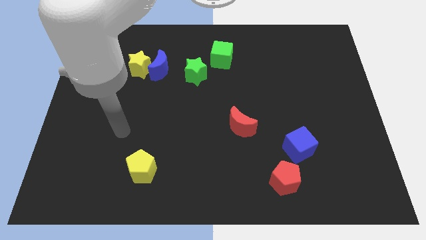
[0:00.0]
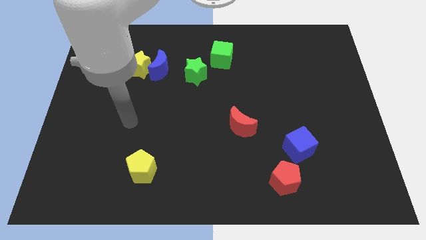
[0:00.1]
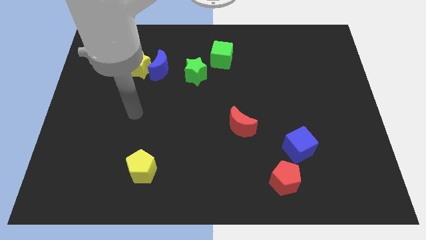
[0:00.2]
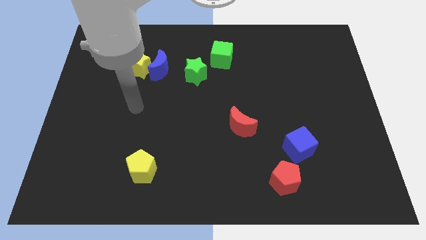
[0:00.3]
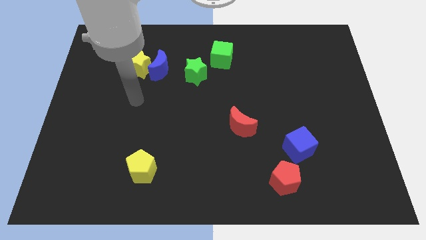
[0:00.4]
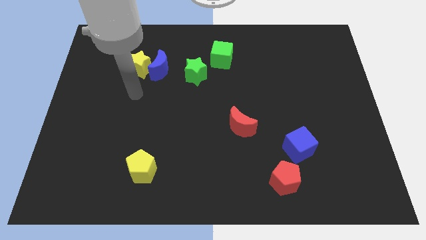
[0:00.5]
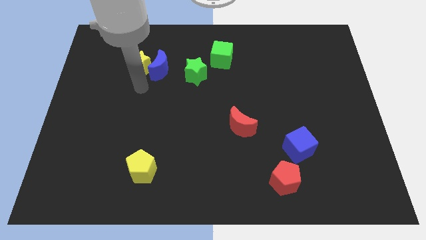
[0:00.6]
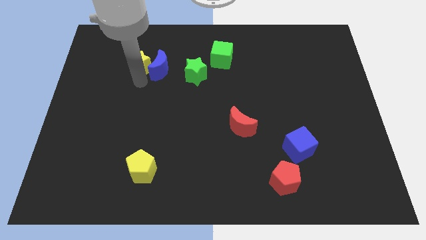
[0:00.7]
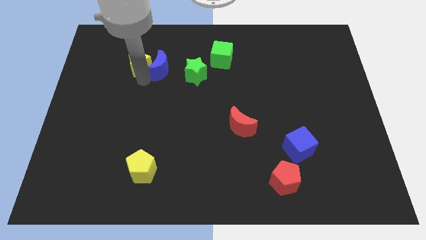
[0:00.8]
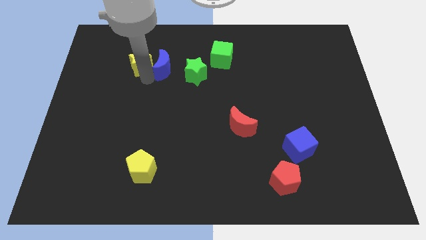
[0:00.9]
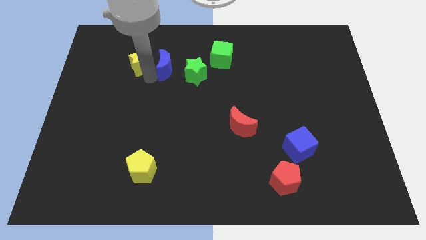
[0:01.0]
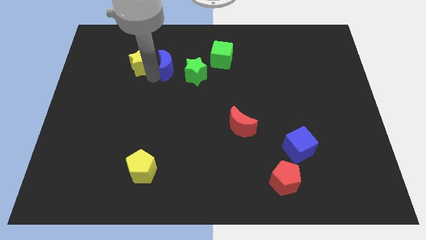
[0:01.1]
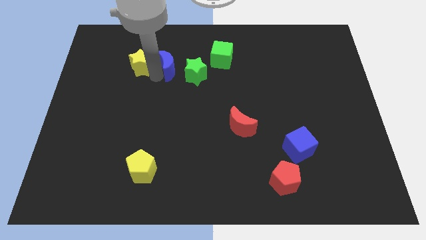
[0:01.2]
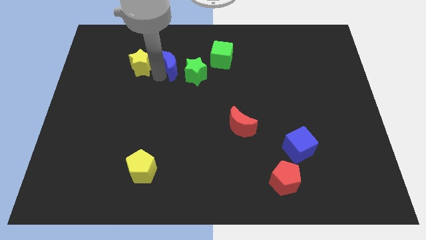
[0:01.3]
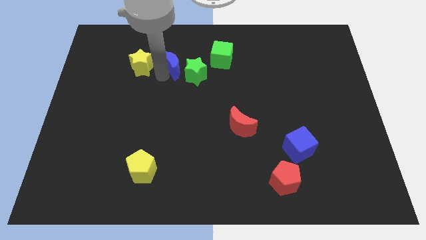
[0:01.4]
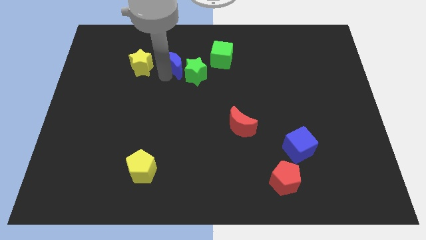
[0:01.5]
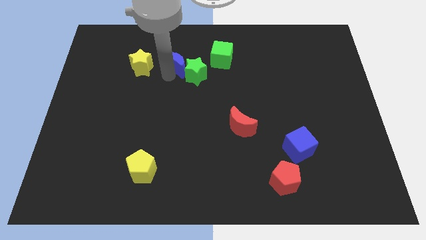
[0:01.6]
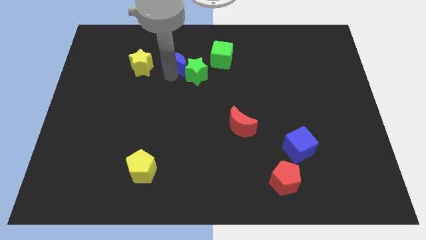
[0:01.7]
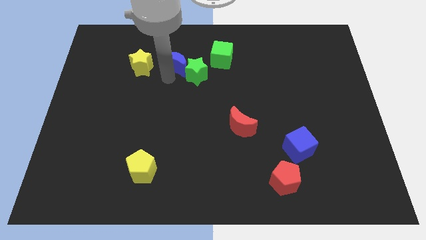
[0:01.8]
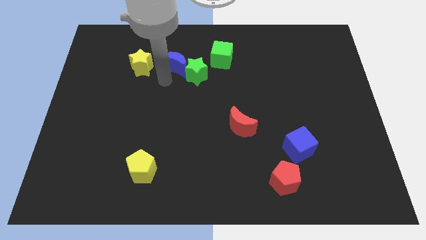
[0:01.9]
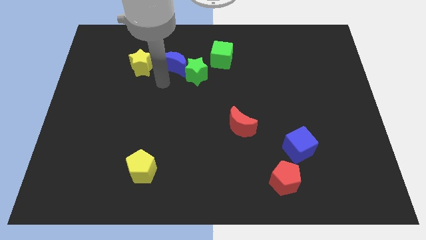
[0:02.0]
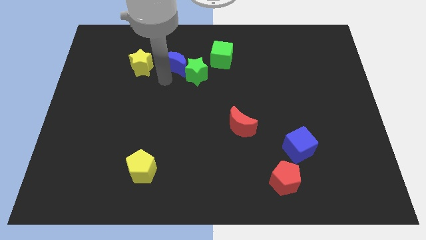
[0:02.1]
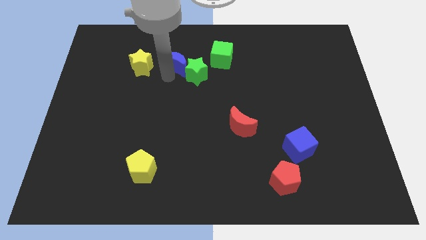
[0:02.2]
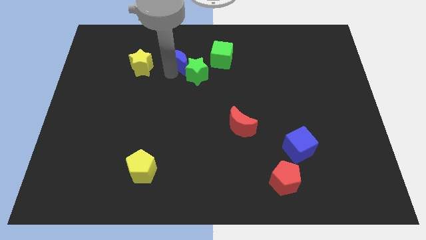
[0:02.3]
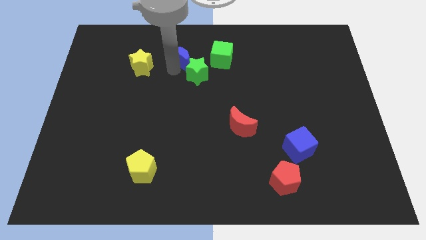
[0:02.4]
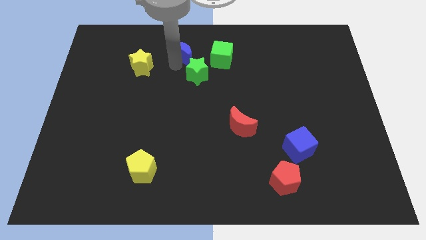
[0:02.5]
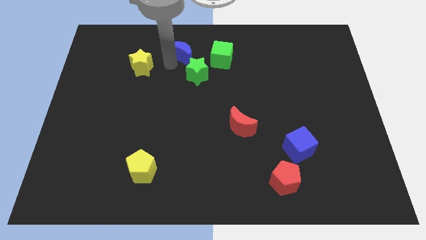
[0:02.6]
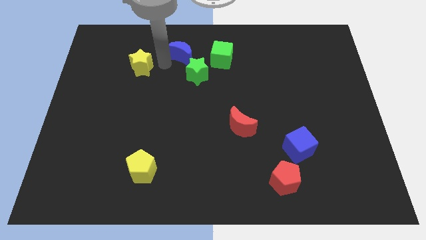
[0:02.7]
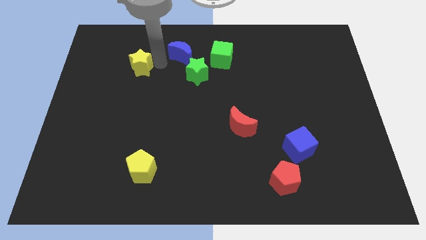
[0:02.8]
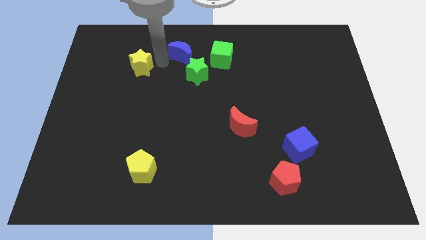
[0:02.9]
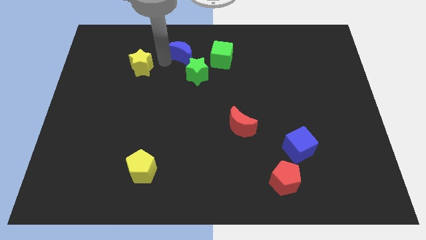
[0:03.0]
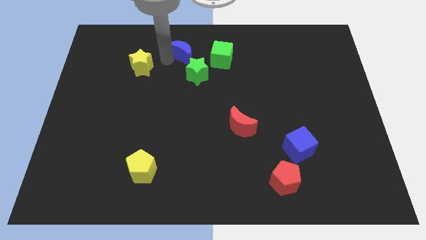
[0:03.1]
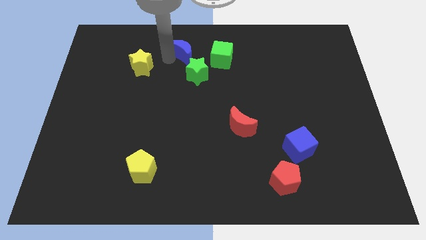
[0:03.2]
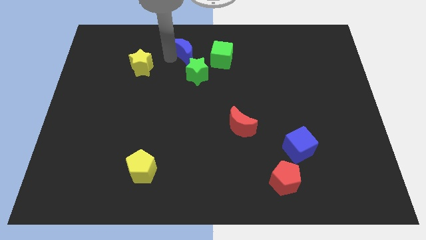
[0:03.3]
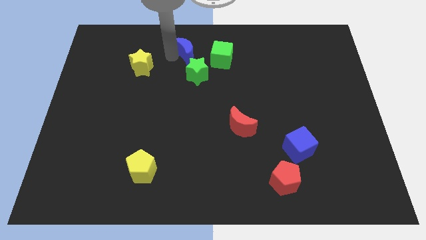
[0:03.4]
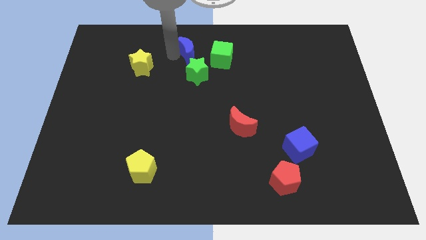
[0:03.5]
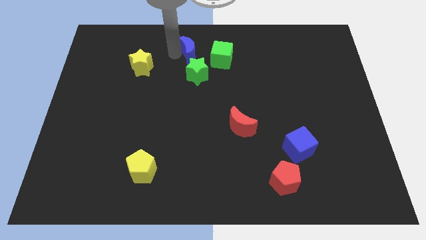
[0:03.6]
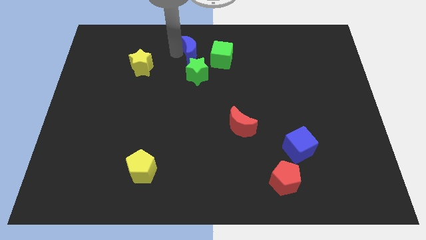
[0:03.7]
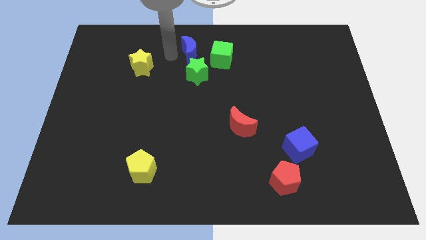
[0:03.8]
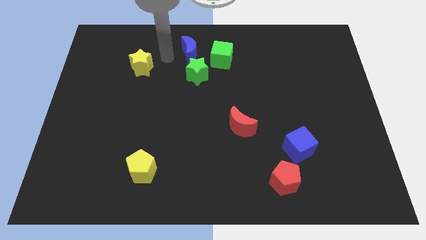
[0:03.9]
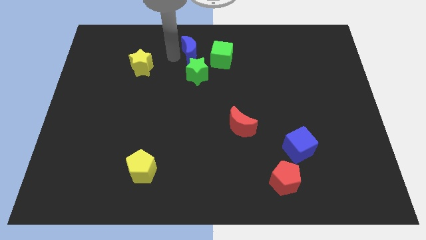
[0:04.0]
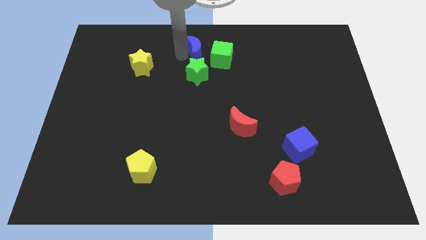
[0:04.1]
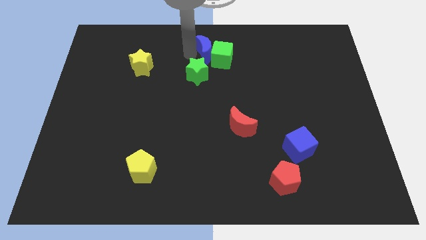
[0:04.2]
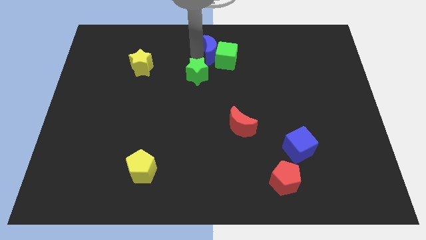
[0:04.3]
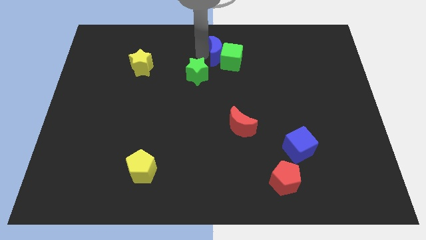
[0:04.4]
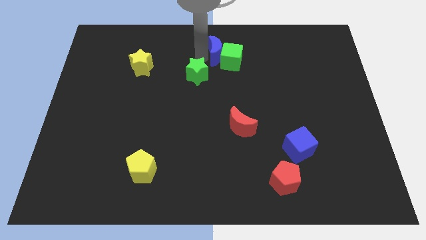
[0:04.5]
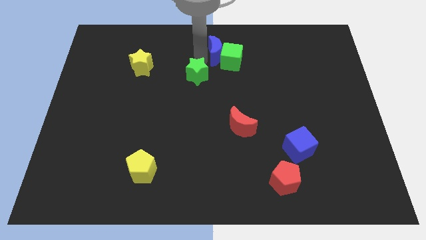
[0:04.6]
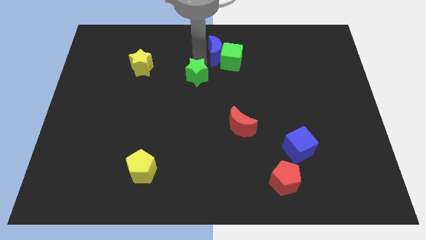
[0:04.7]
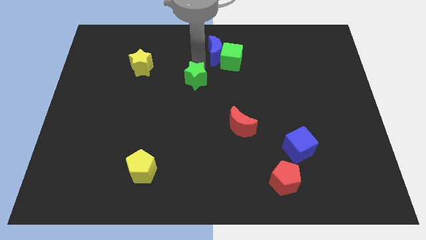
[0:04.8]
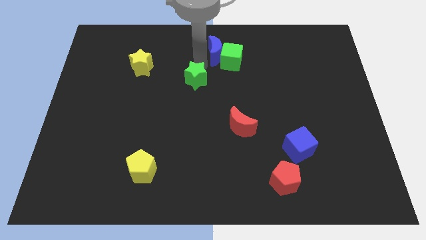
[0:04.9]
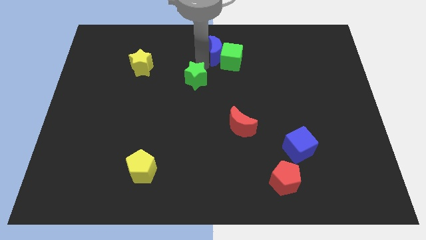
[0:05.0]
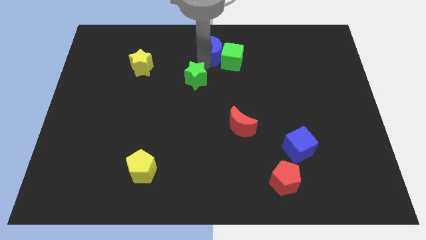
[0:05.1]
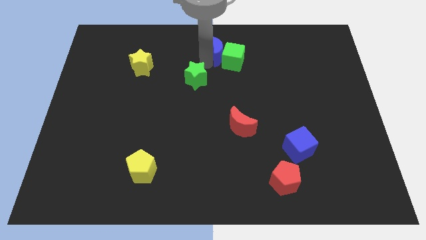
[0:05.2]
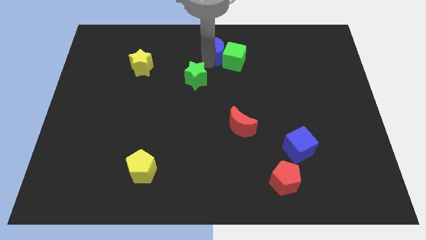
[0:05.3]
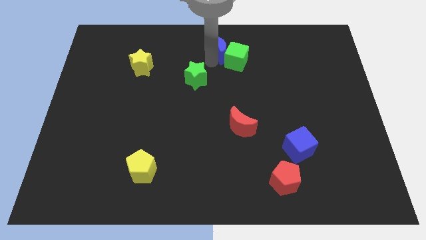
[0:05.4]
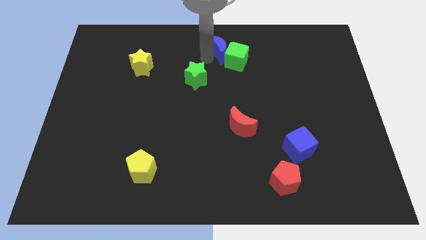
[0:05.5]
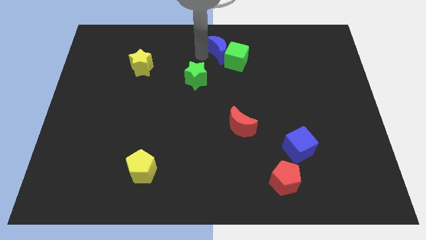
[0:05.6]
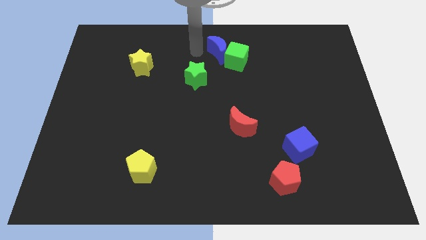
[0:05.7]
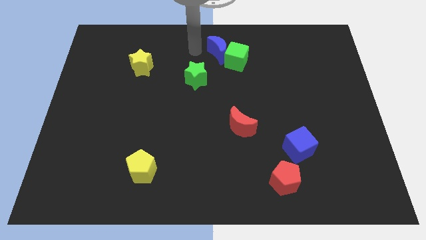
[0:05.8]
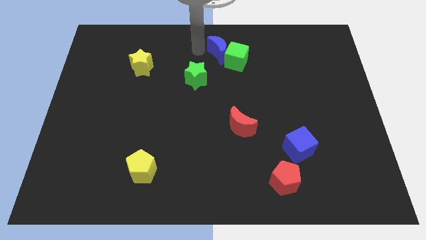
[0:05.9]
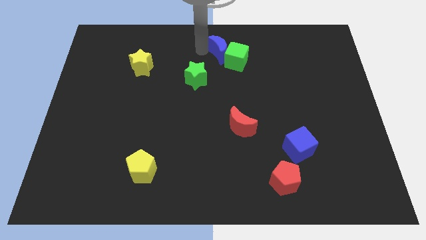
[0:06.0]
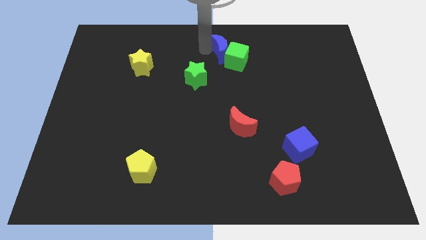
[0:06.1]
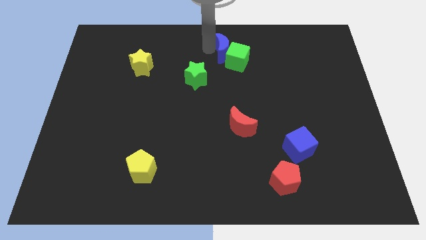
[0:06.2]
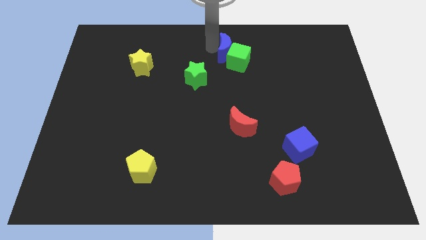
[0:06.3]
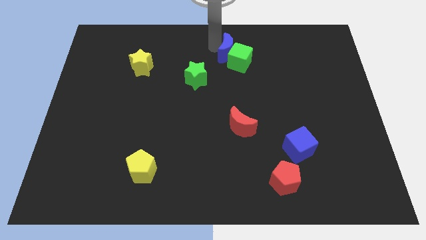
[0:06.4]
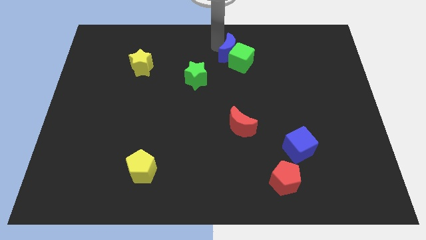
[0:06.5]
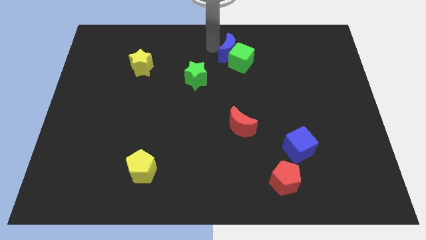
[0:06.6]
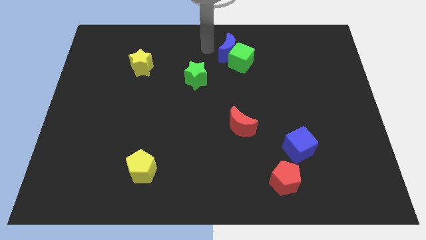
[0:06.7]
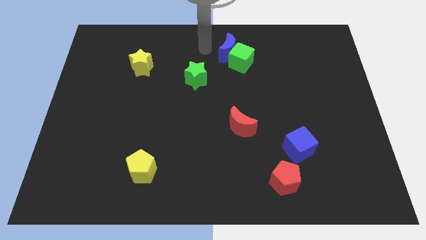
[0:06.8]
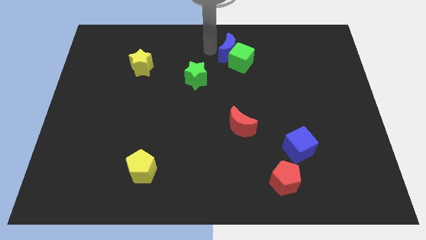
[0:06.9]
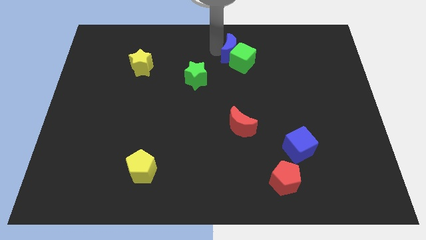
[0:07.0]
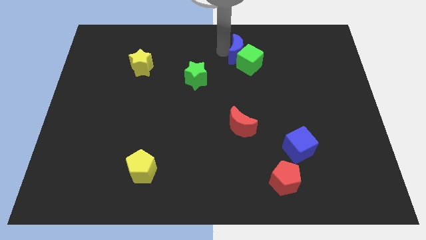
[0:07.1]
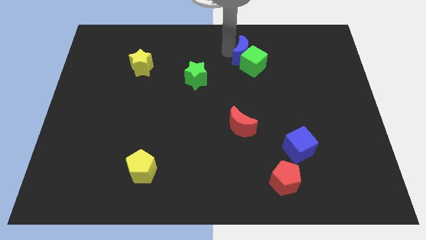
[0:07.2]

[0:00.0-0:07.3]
push the blue moon to the right

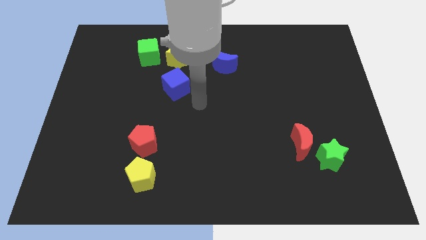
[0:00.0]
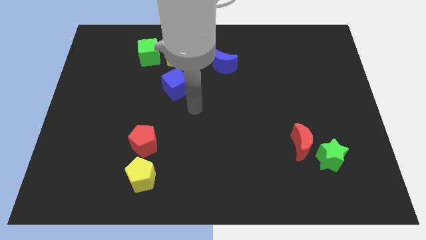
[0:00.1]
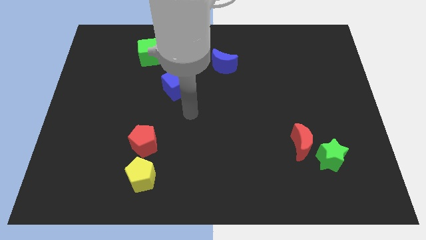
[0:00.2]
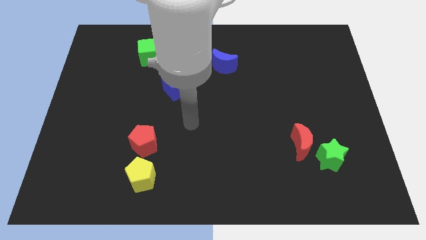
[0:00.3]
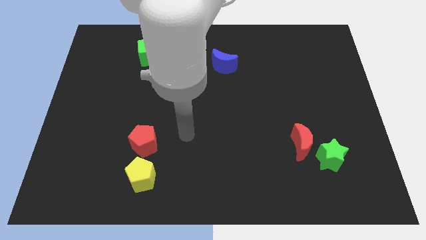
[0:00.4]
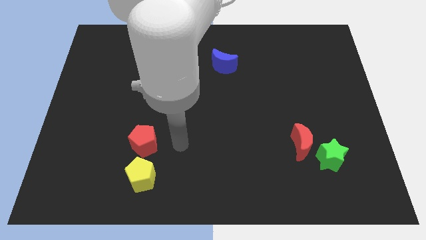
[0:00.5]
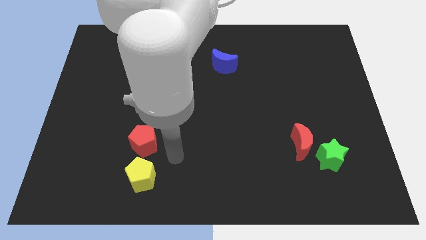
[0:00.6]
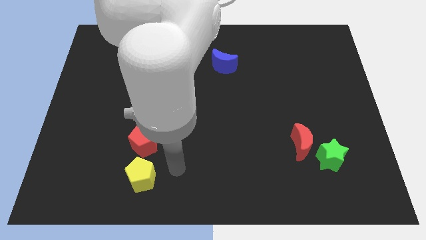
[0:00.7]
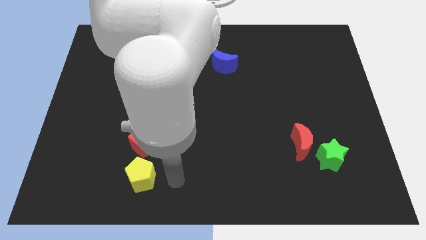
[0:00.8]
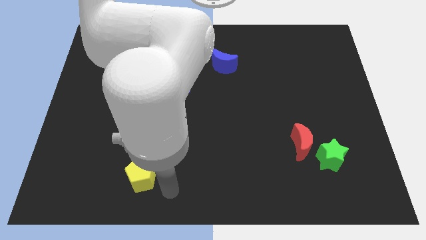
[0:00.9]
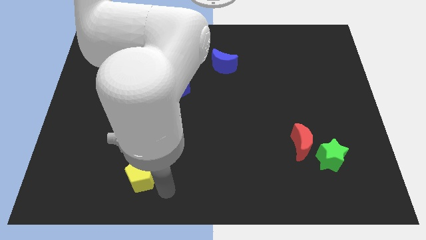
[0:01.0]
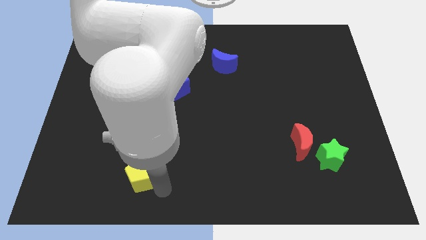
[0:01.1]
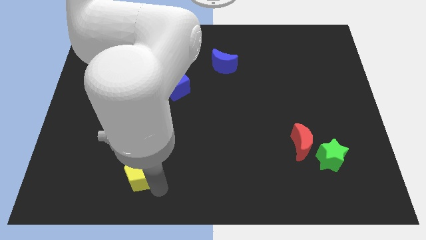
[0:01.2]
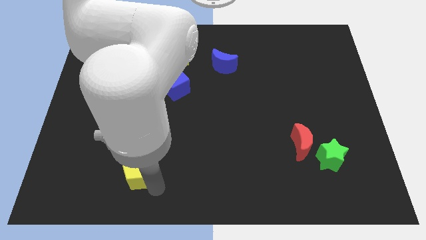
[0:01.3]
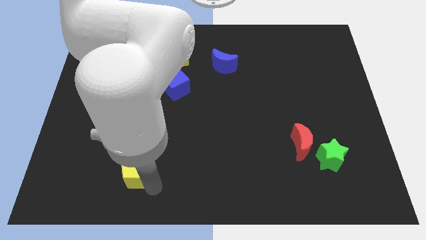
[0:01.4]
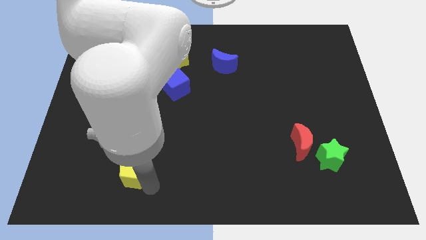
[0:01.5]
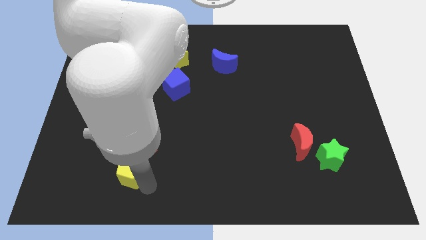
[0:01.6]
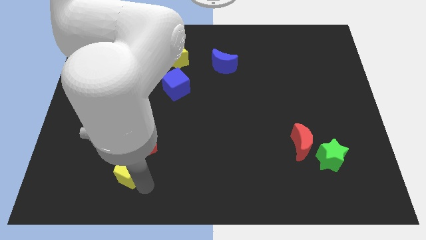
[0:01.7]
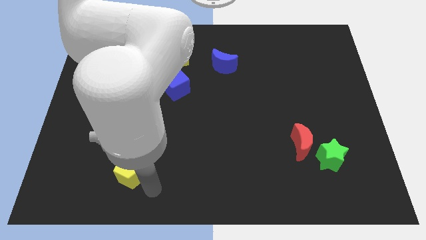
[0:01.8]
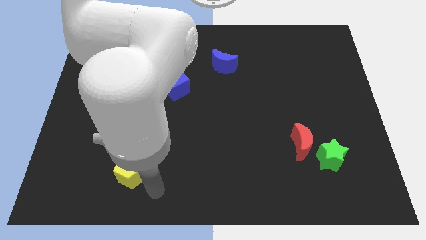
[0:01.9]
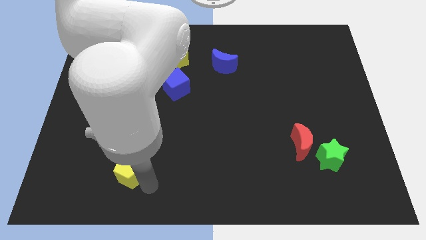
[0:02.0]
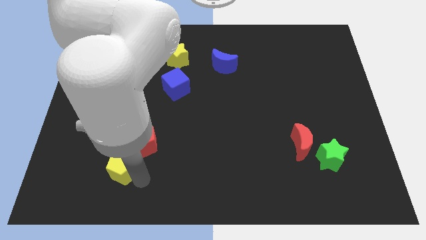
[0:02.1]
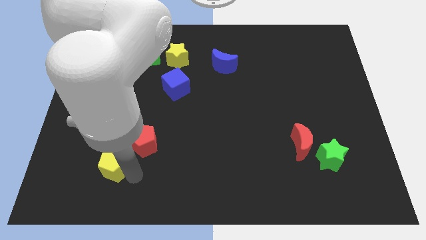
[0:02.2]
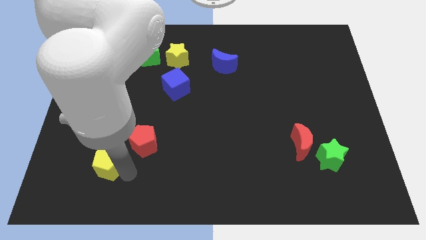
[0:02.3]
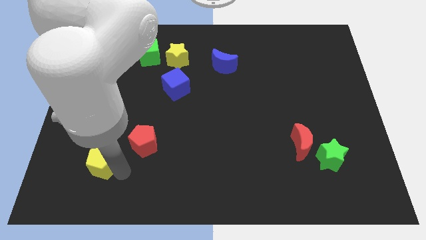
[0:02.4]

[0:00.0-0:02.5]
push the yellow pentagon a bit up and then to the left
